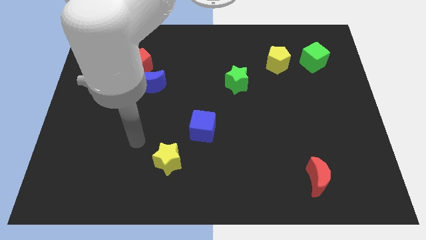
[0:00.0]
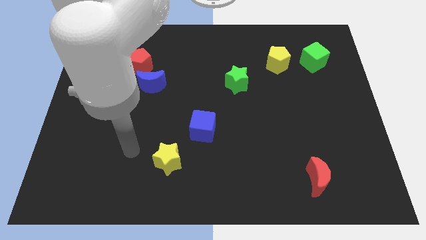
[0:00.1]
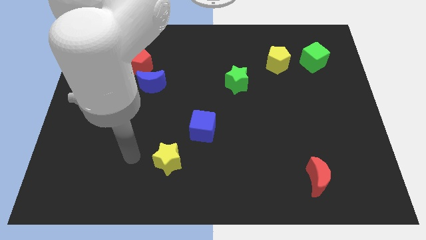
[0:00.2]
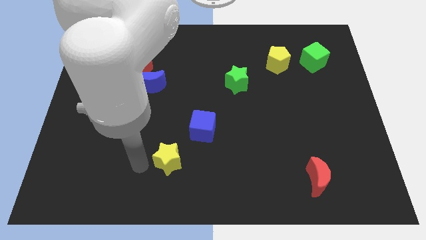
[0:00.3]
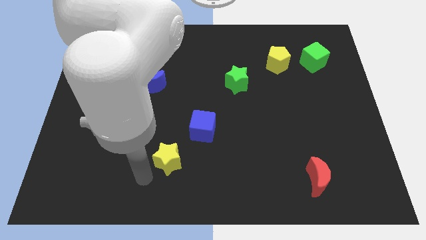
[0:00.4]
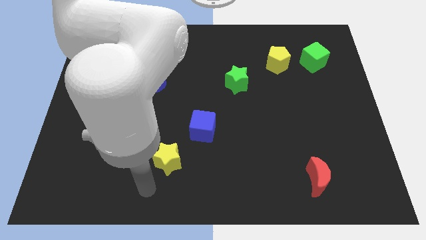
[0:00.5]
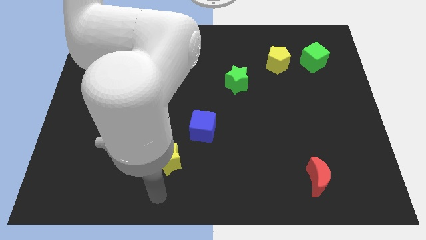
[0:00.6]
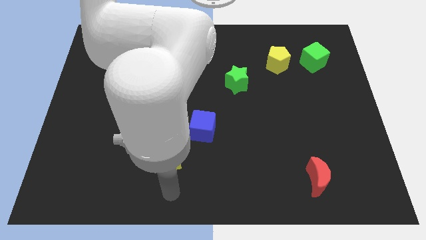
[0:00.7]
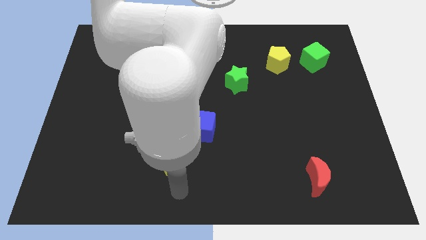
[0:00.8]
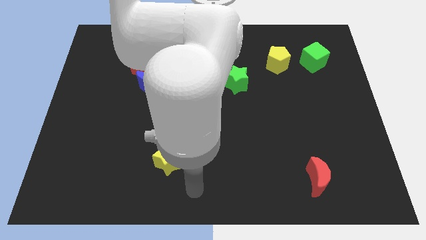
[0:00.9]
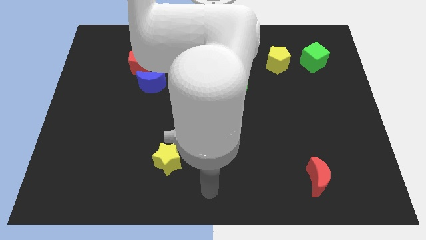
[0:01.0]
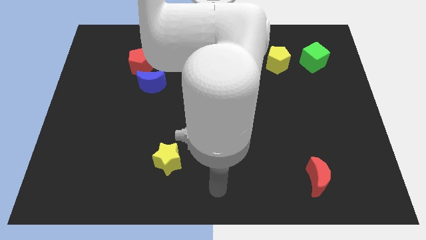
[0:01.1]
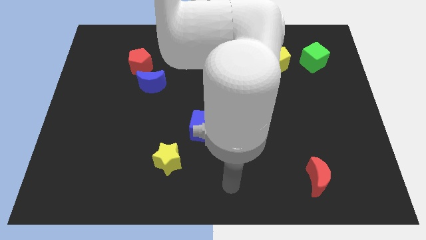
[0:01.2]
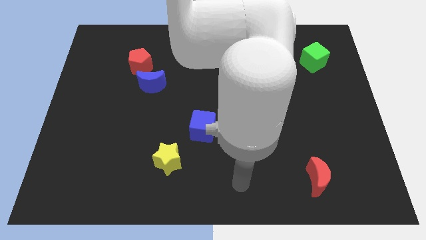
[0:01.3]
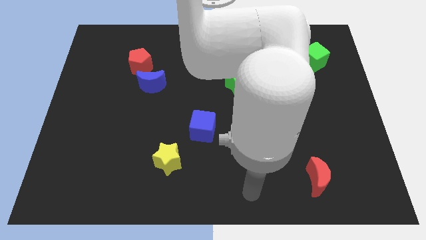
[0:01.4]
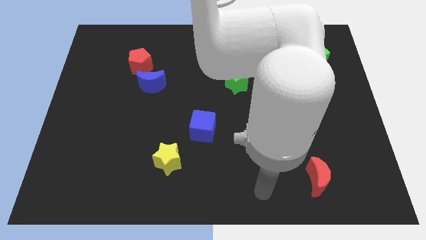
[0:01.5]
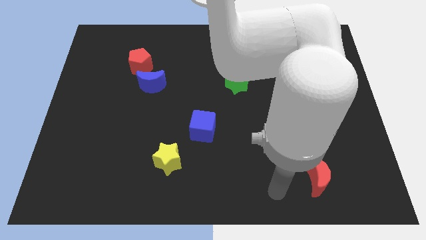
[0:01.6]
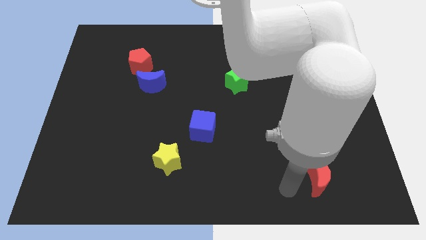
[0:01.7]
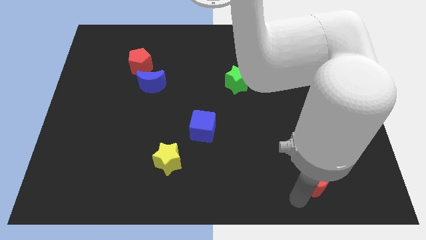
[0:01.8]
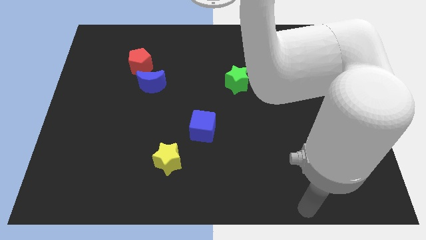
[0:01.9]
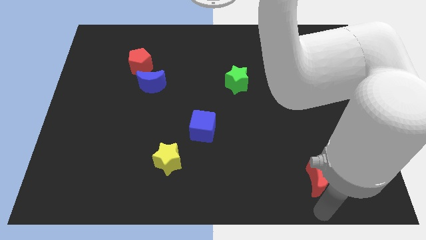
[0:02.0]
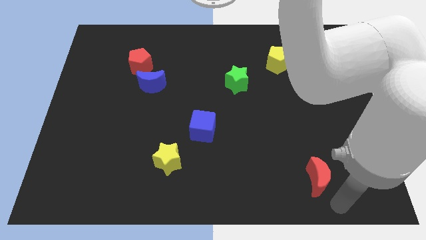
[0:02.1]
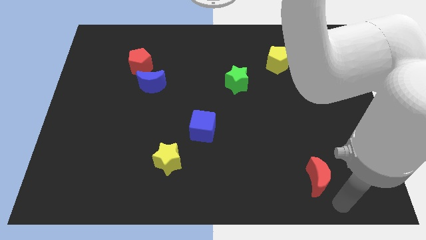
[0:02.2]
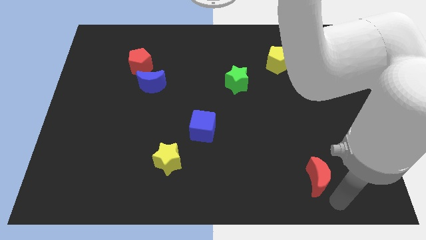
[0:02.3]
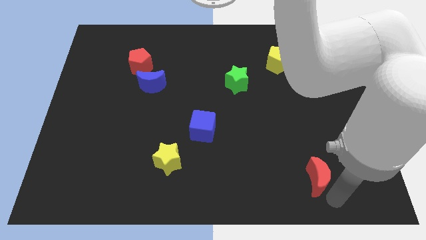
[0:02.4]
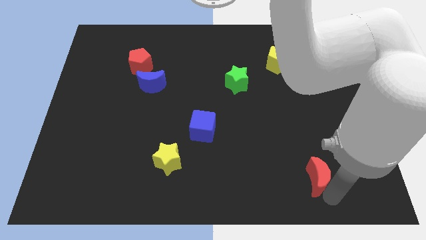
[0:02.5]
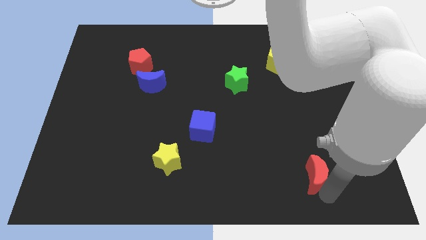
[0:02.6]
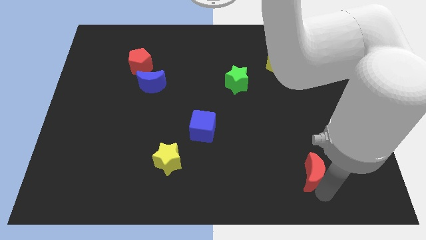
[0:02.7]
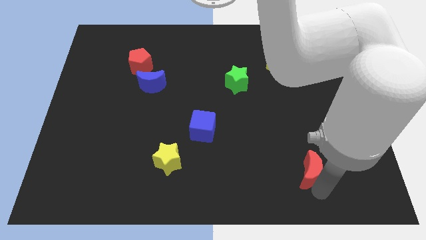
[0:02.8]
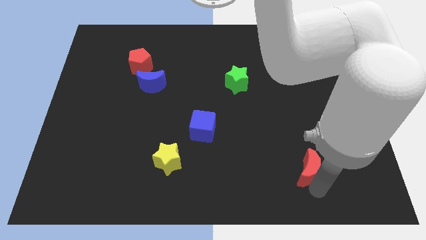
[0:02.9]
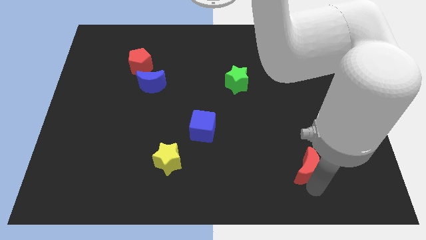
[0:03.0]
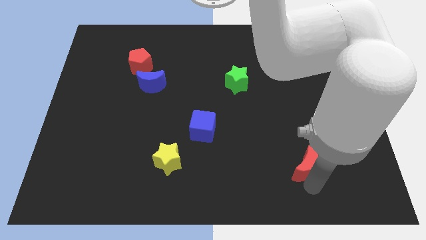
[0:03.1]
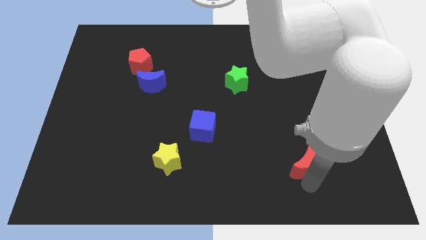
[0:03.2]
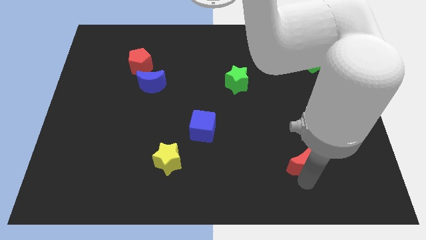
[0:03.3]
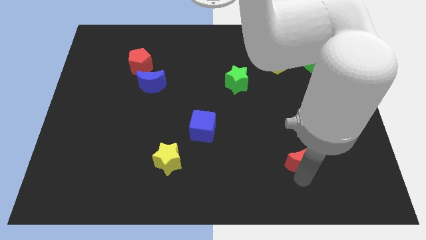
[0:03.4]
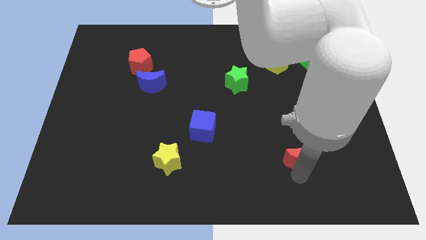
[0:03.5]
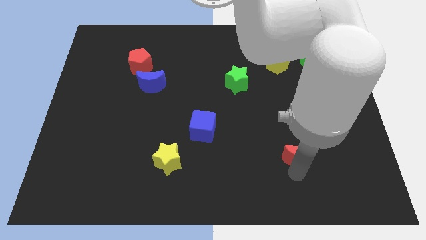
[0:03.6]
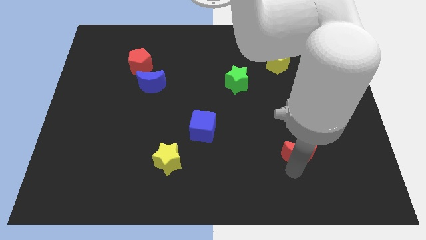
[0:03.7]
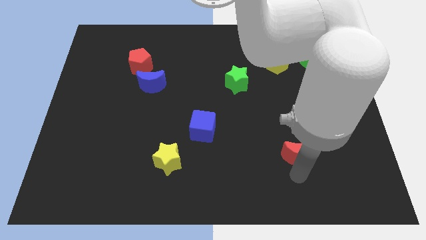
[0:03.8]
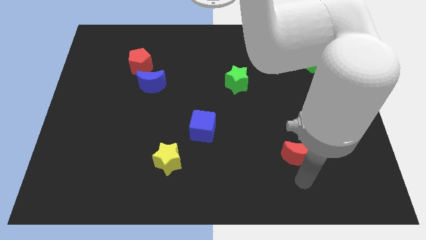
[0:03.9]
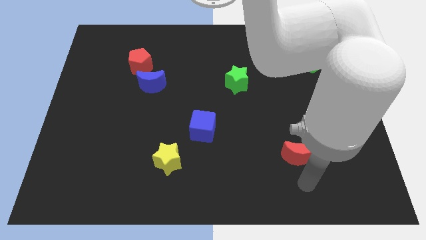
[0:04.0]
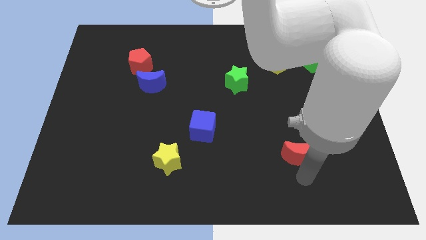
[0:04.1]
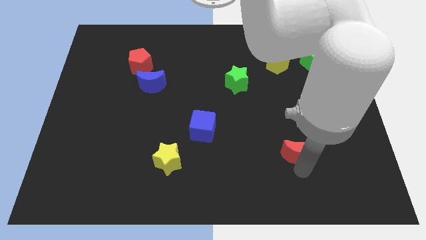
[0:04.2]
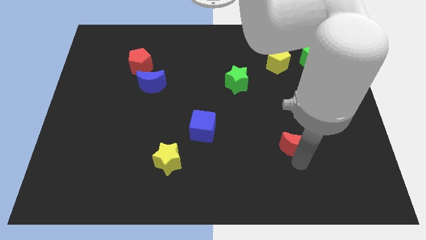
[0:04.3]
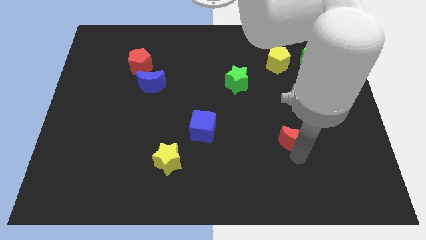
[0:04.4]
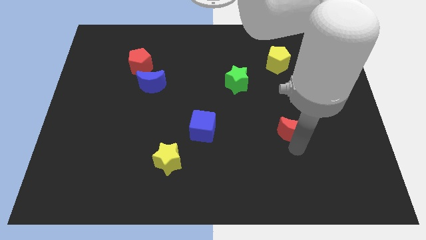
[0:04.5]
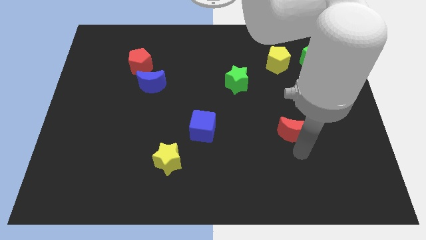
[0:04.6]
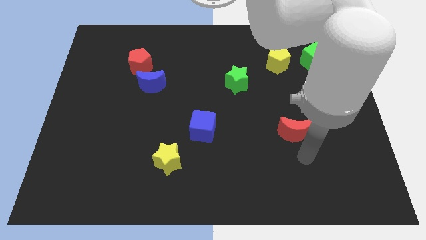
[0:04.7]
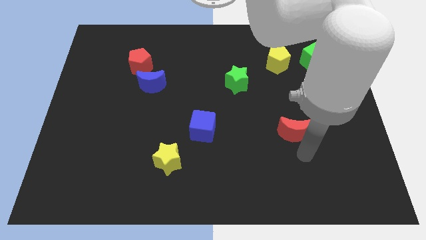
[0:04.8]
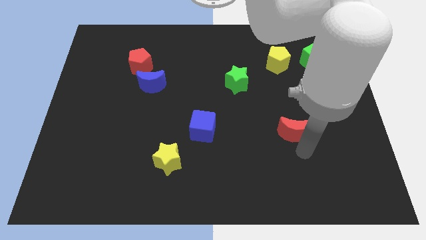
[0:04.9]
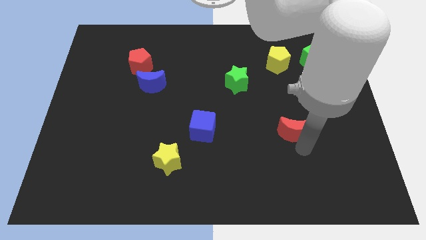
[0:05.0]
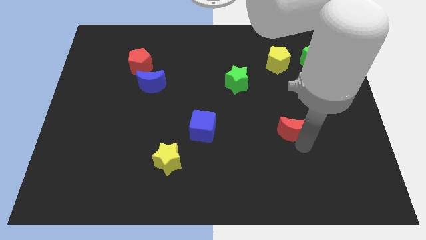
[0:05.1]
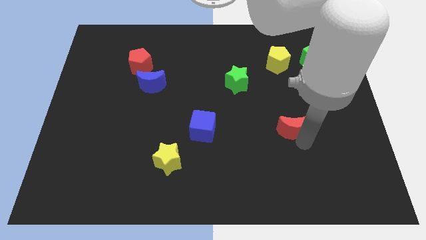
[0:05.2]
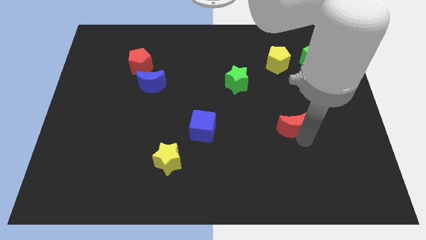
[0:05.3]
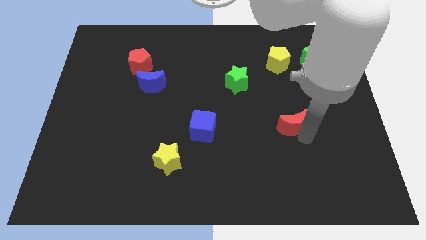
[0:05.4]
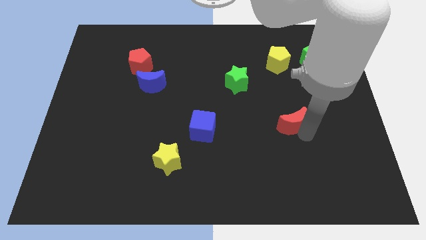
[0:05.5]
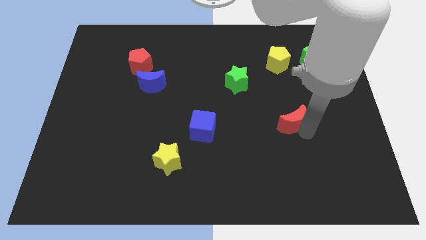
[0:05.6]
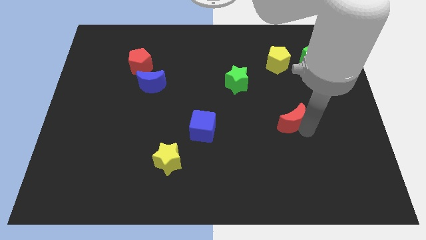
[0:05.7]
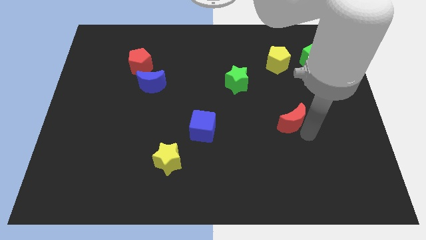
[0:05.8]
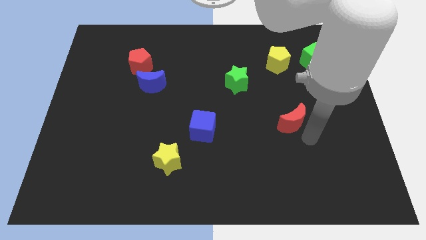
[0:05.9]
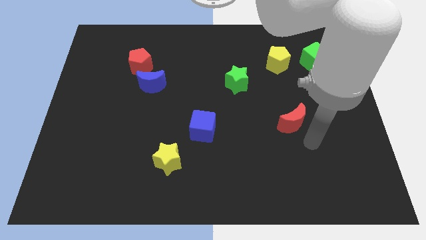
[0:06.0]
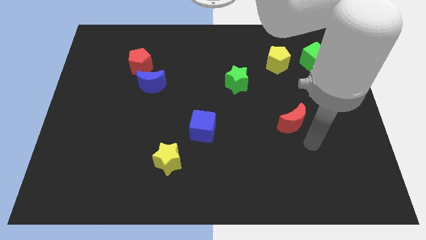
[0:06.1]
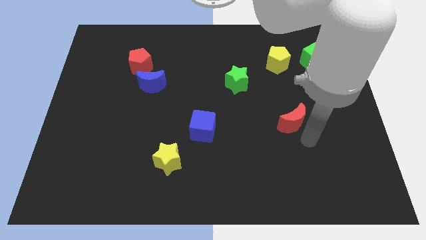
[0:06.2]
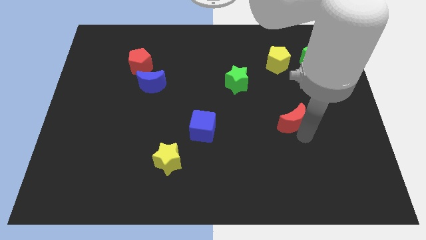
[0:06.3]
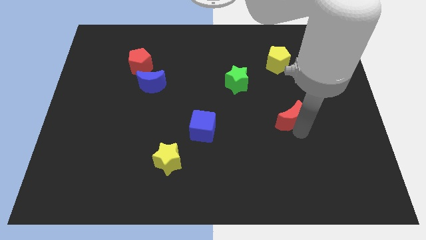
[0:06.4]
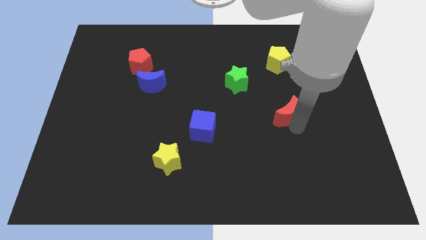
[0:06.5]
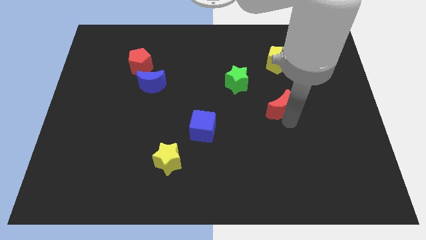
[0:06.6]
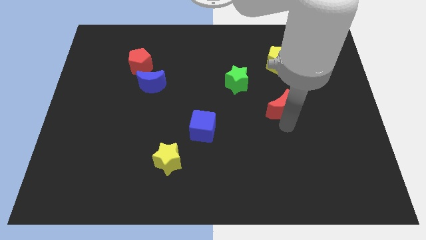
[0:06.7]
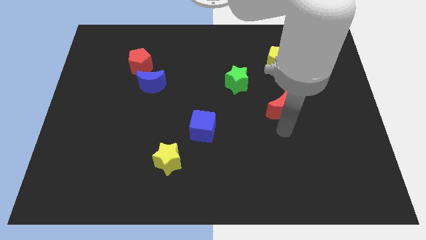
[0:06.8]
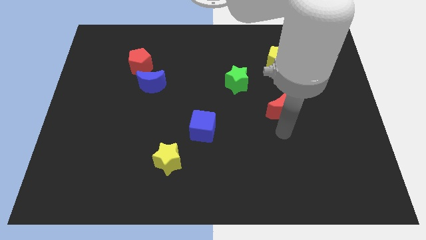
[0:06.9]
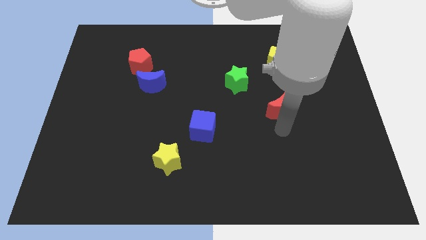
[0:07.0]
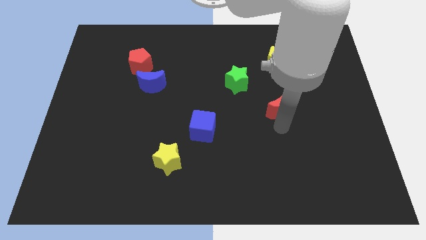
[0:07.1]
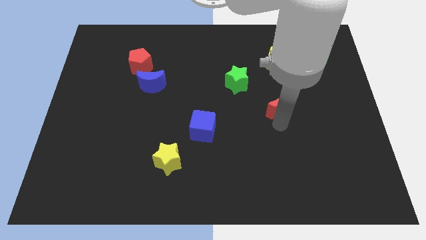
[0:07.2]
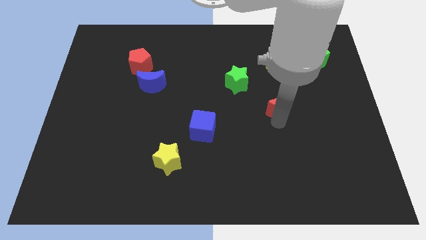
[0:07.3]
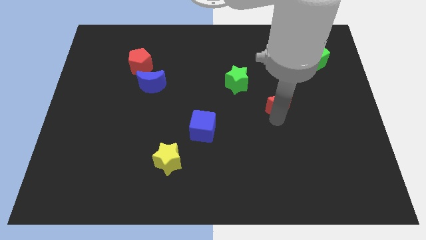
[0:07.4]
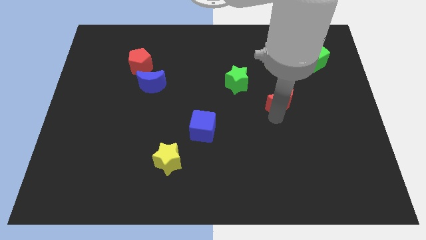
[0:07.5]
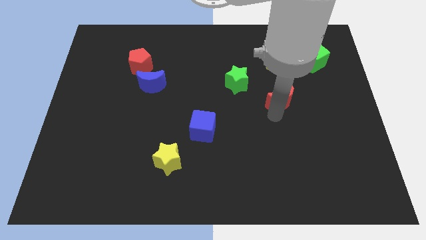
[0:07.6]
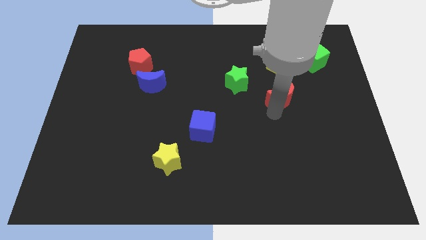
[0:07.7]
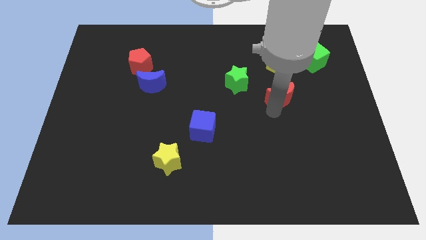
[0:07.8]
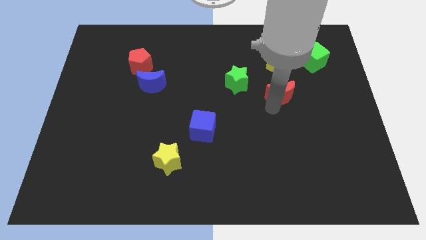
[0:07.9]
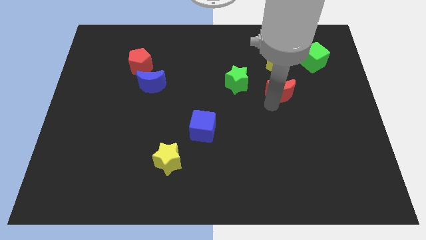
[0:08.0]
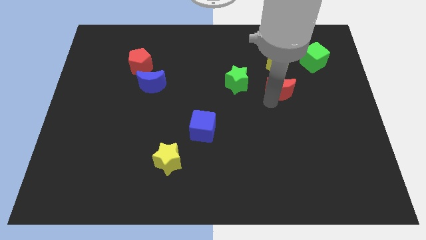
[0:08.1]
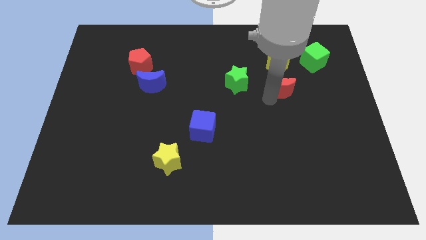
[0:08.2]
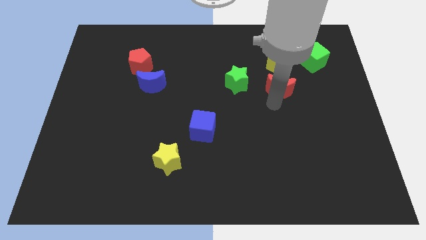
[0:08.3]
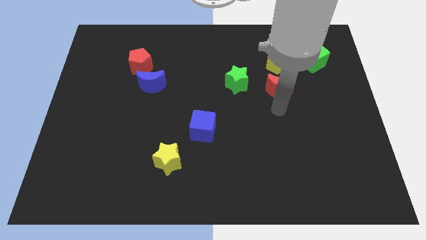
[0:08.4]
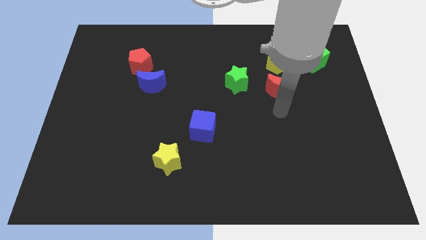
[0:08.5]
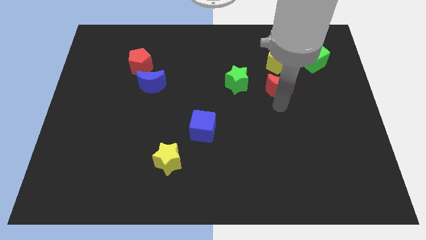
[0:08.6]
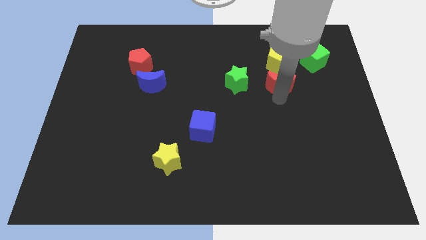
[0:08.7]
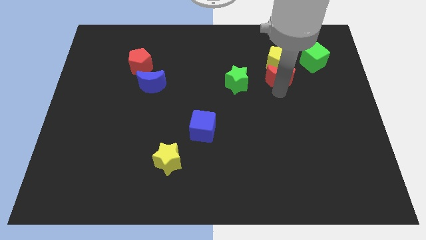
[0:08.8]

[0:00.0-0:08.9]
move the red moon to the yellow pentagon
